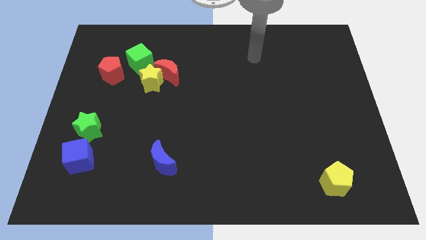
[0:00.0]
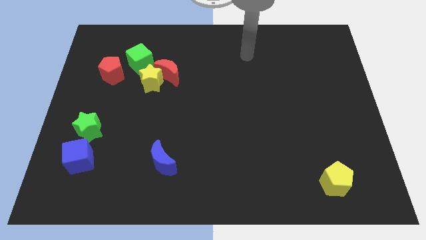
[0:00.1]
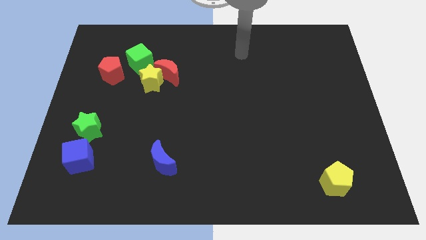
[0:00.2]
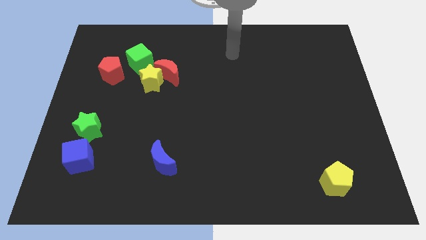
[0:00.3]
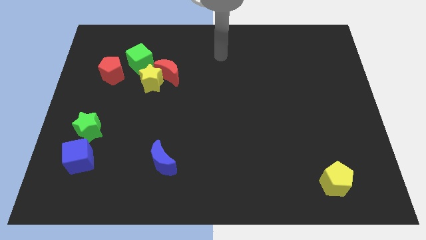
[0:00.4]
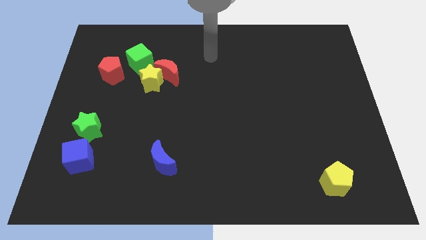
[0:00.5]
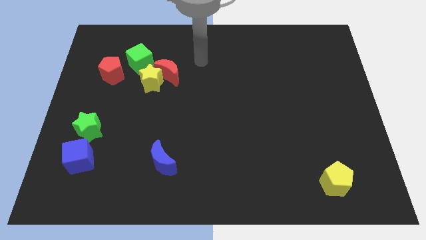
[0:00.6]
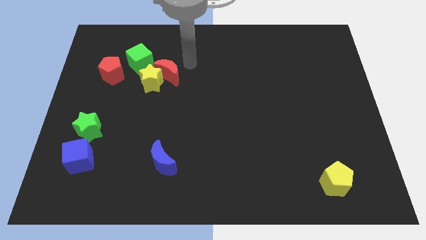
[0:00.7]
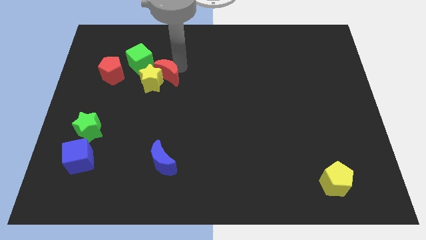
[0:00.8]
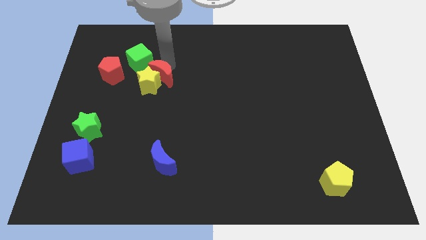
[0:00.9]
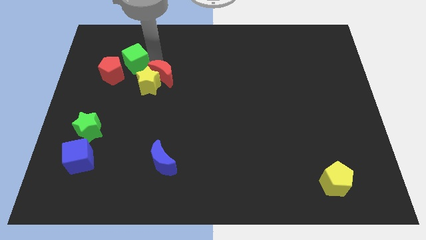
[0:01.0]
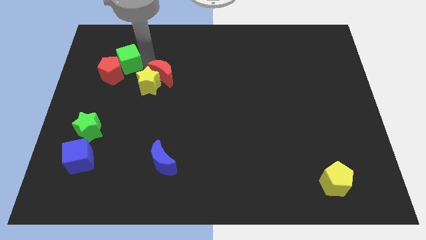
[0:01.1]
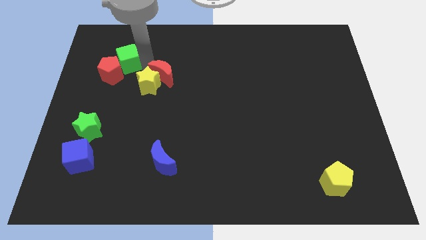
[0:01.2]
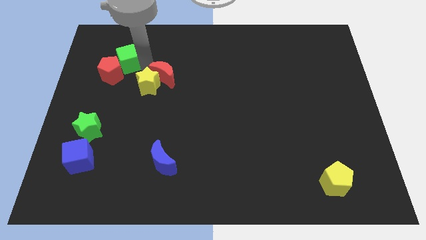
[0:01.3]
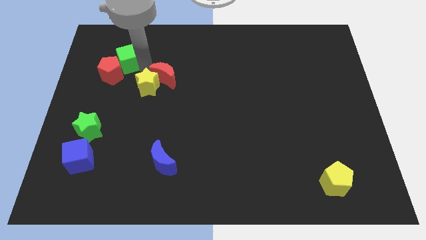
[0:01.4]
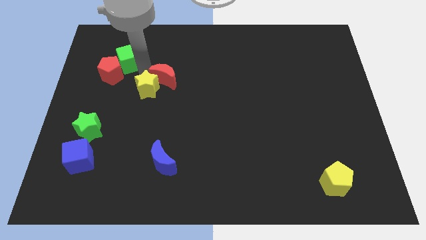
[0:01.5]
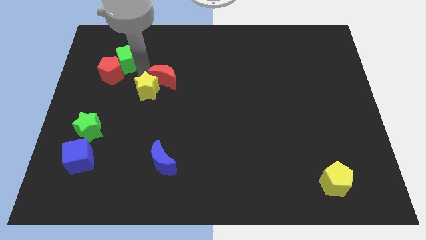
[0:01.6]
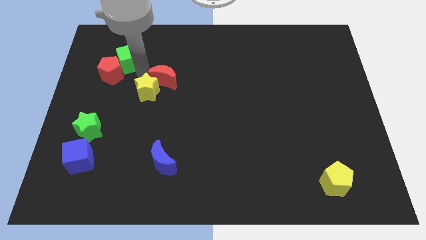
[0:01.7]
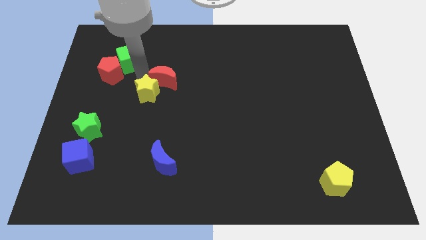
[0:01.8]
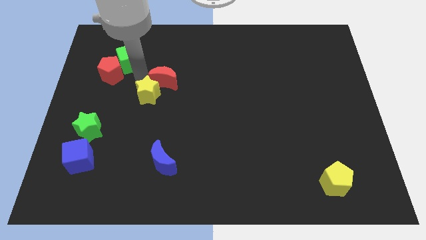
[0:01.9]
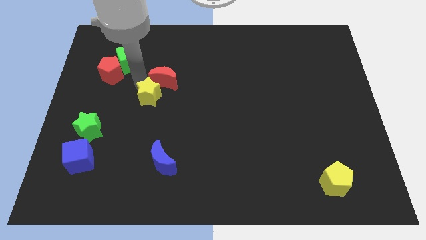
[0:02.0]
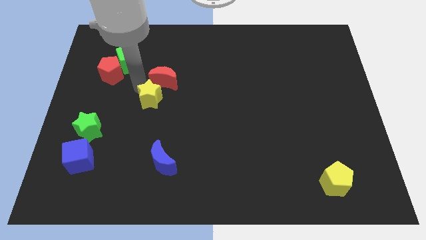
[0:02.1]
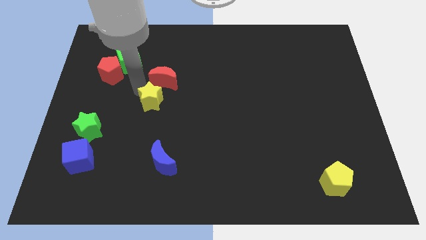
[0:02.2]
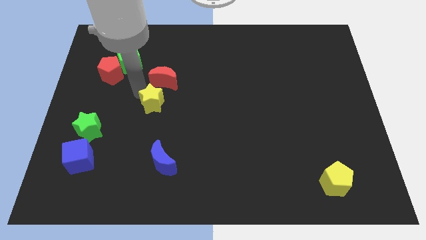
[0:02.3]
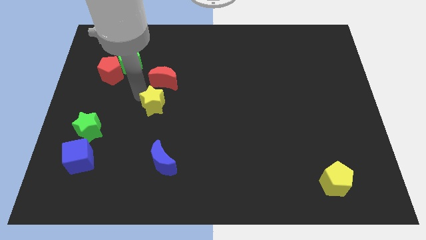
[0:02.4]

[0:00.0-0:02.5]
slightly move the yellow star down

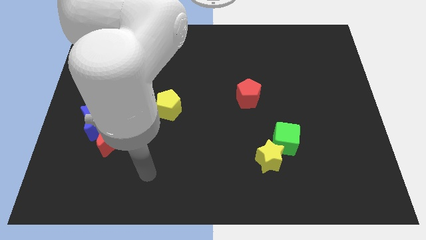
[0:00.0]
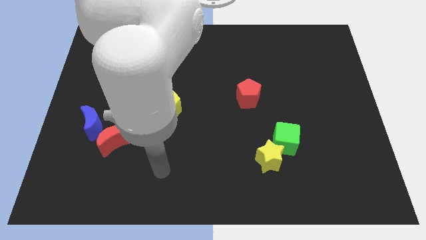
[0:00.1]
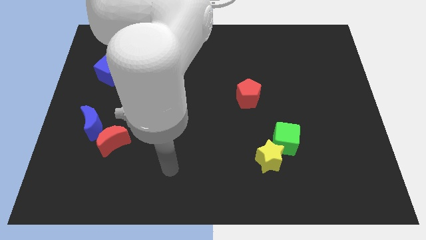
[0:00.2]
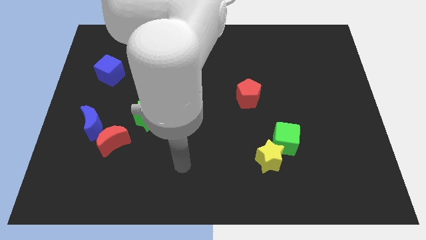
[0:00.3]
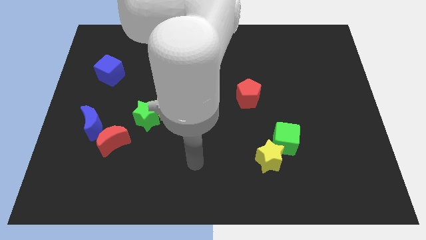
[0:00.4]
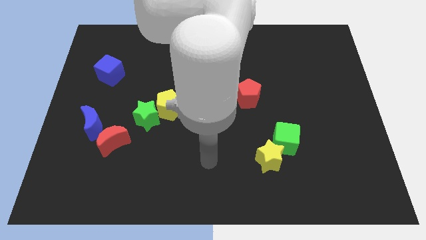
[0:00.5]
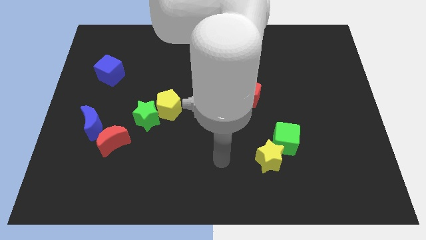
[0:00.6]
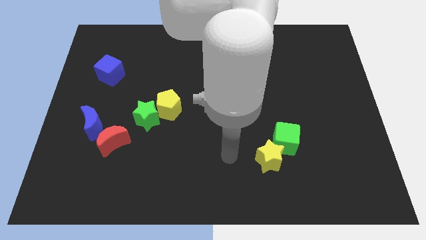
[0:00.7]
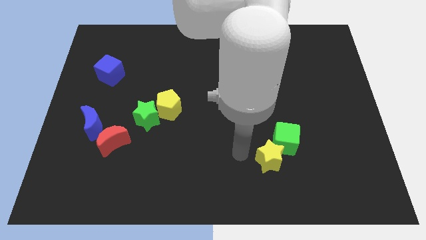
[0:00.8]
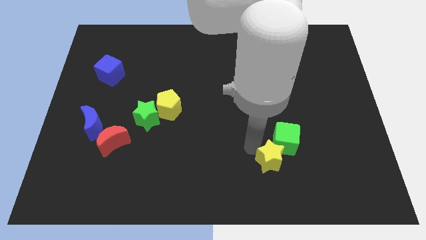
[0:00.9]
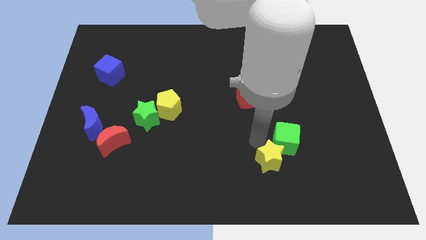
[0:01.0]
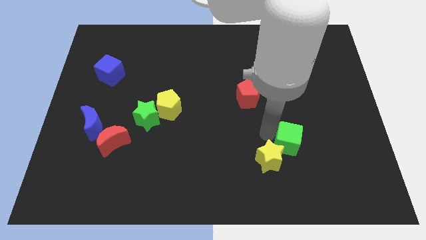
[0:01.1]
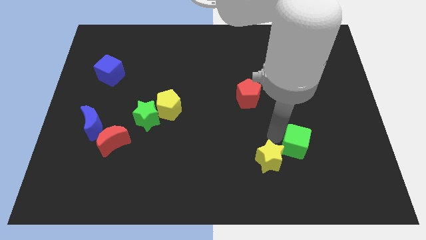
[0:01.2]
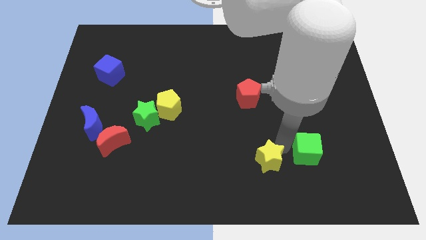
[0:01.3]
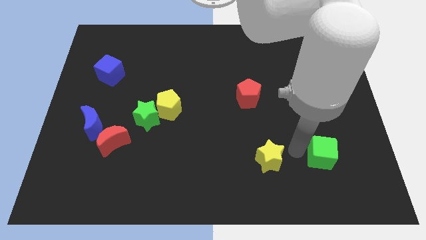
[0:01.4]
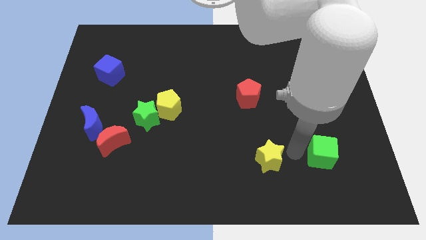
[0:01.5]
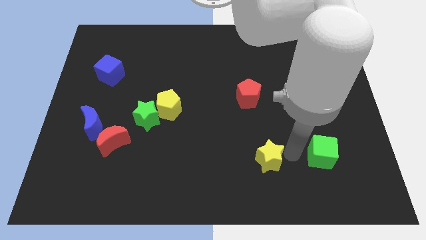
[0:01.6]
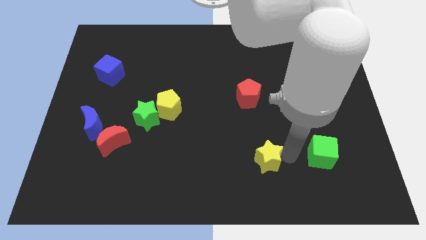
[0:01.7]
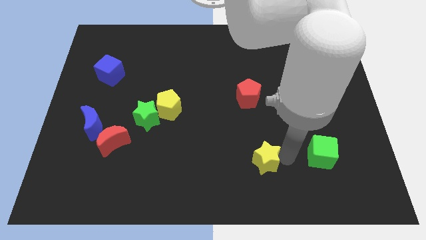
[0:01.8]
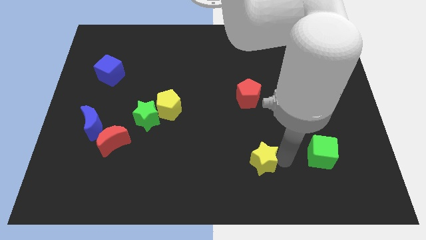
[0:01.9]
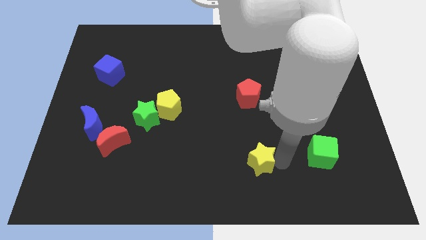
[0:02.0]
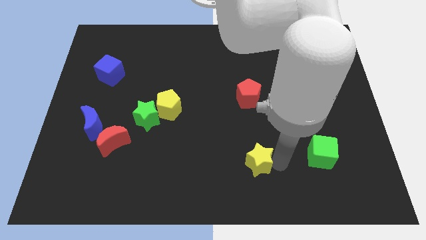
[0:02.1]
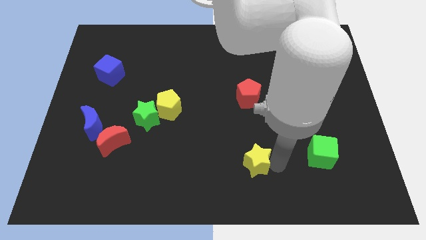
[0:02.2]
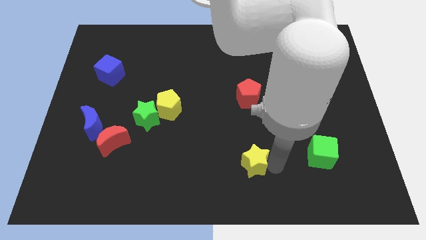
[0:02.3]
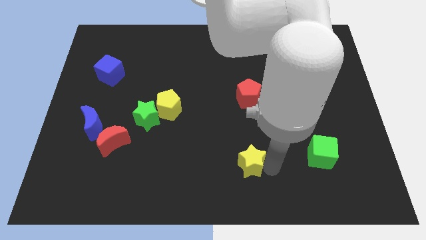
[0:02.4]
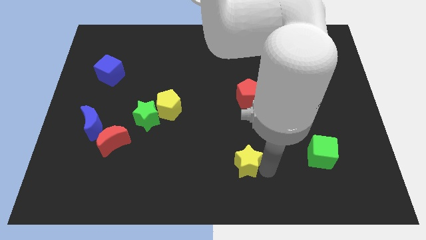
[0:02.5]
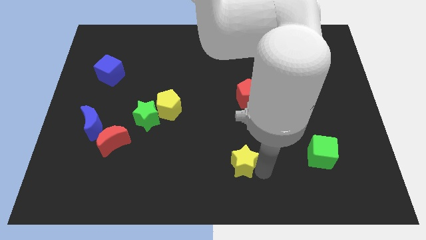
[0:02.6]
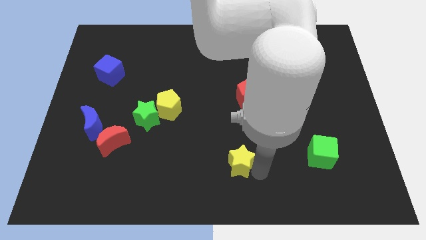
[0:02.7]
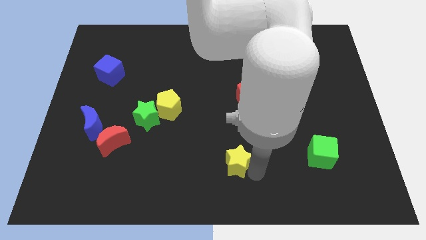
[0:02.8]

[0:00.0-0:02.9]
move the yellow star a little bit to the left

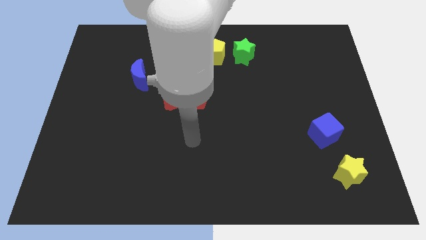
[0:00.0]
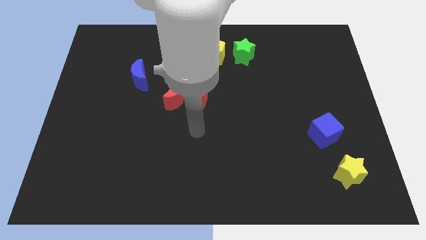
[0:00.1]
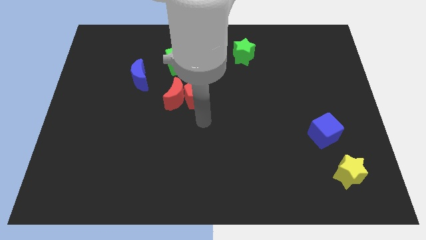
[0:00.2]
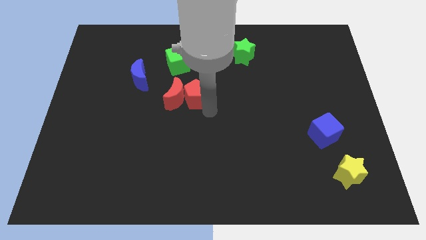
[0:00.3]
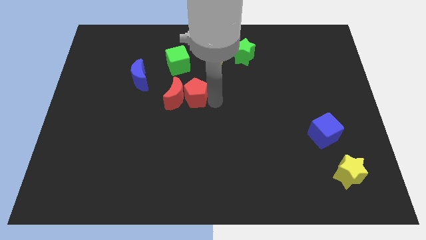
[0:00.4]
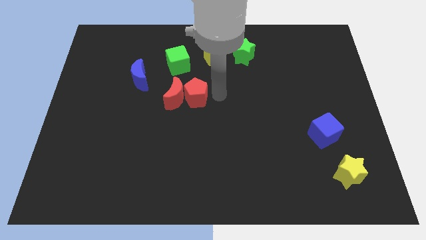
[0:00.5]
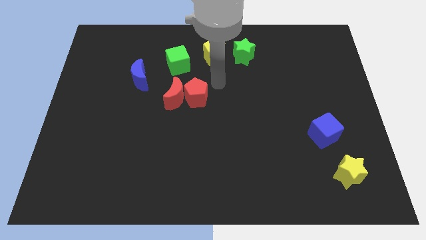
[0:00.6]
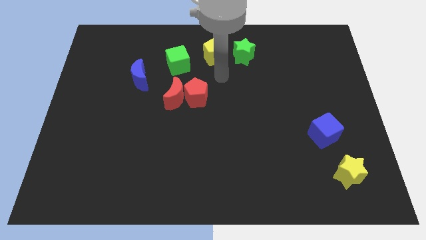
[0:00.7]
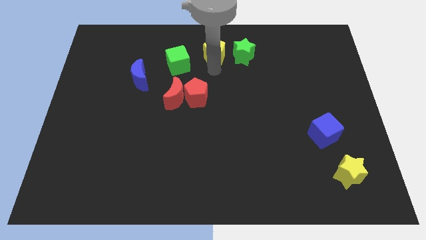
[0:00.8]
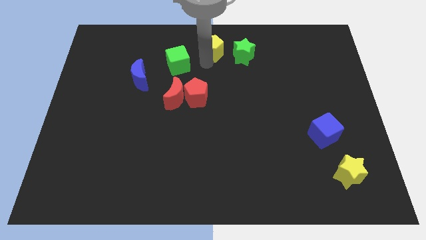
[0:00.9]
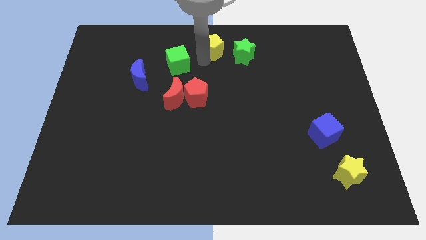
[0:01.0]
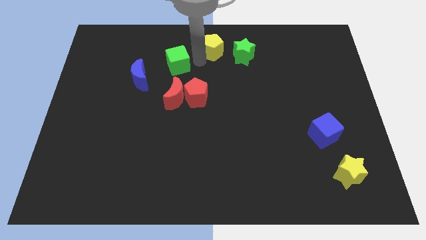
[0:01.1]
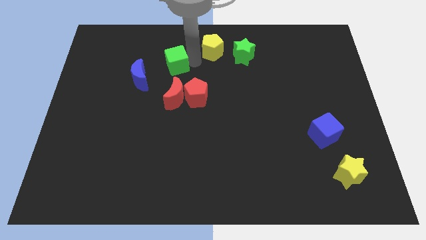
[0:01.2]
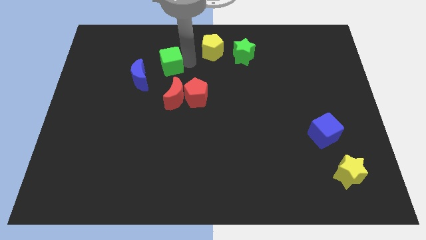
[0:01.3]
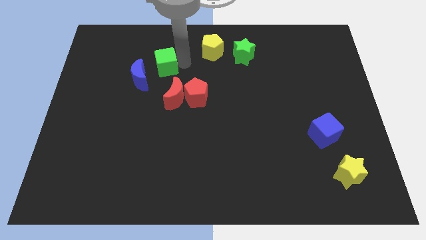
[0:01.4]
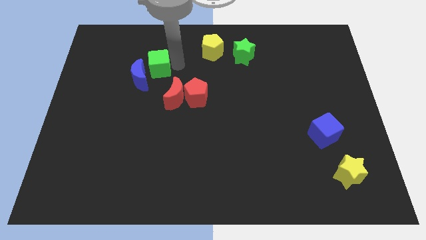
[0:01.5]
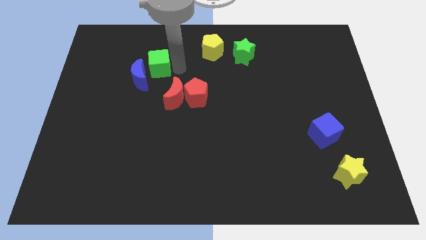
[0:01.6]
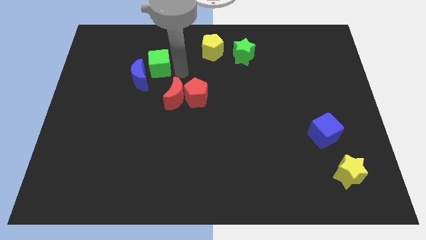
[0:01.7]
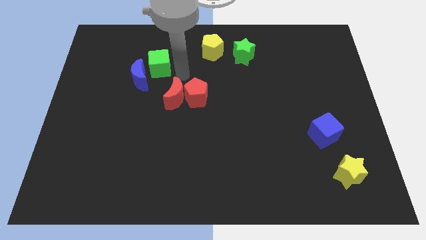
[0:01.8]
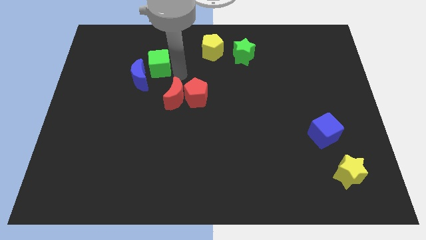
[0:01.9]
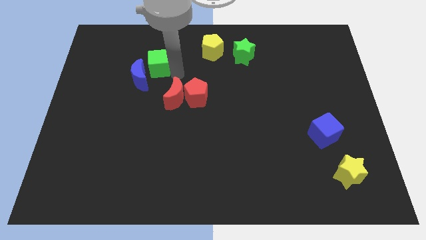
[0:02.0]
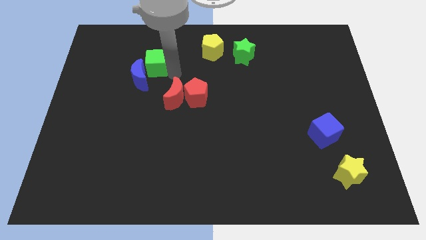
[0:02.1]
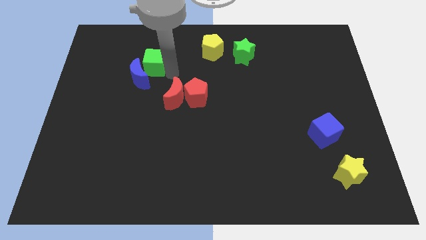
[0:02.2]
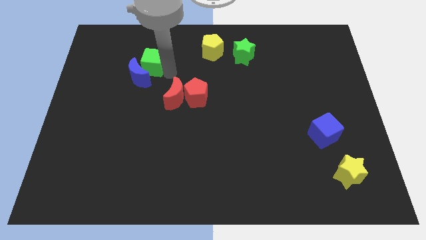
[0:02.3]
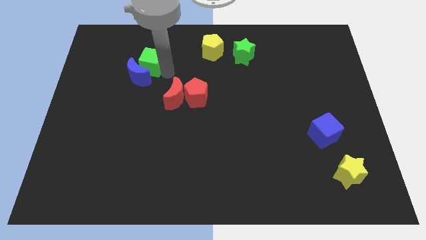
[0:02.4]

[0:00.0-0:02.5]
slightly move the green cube to the left
